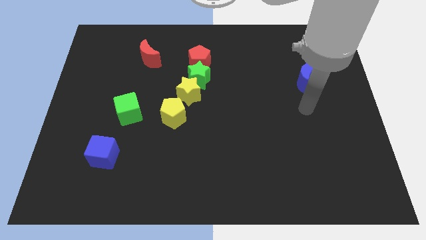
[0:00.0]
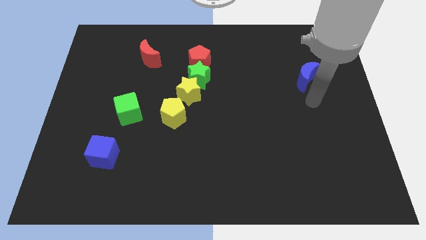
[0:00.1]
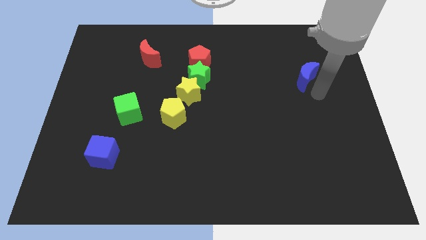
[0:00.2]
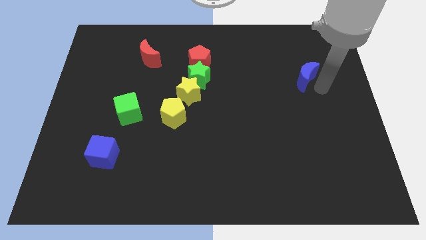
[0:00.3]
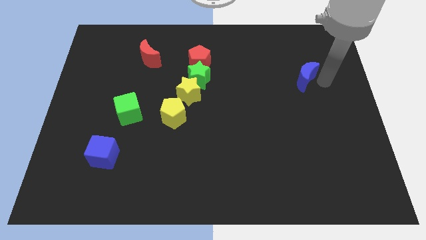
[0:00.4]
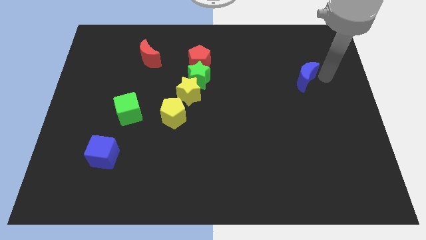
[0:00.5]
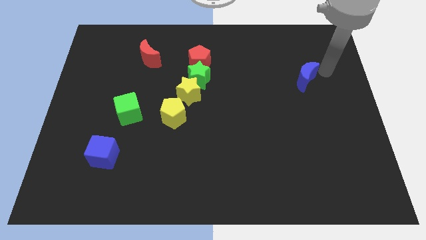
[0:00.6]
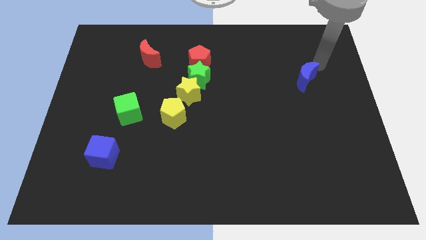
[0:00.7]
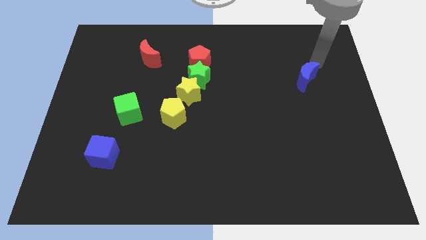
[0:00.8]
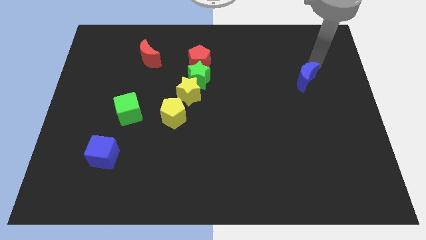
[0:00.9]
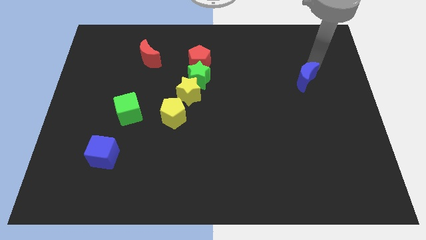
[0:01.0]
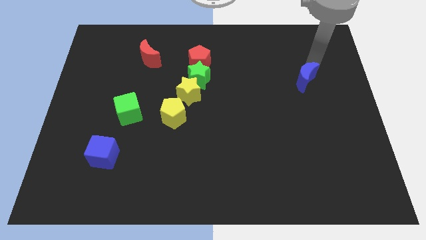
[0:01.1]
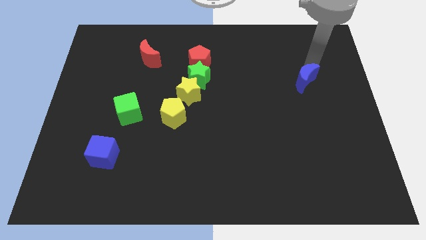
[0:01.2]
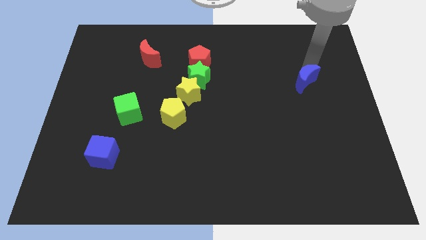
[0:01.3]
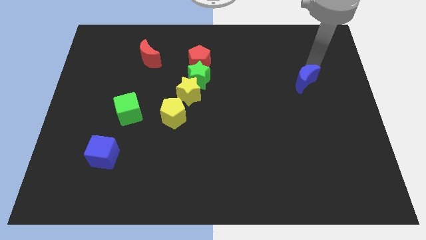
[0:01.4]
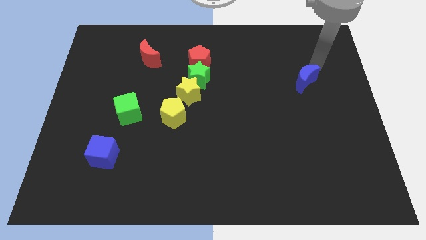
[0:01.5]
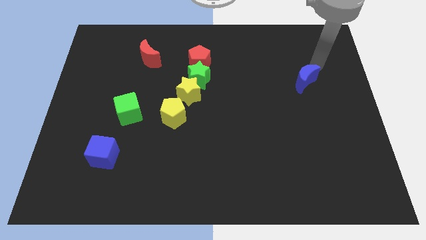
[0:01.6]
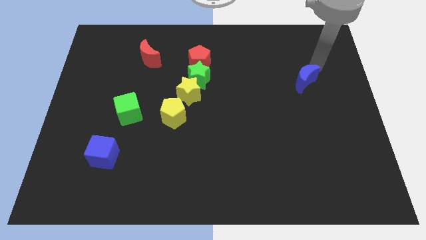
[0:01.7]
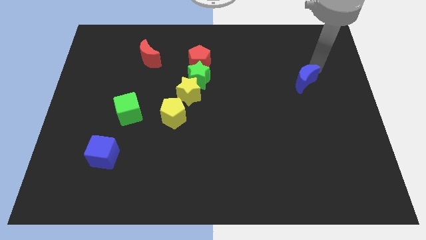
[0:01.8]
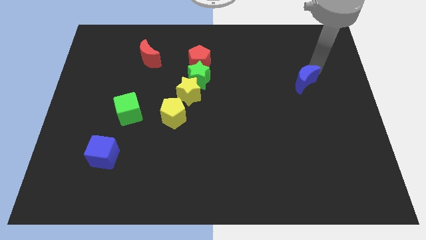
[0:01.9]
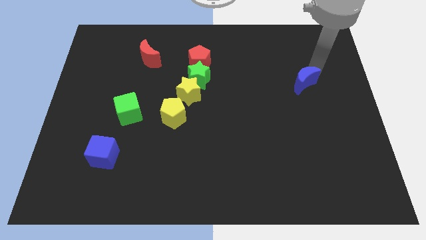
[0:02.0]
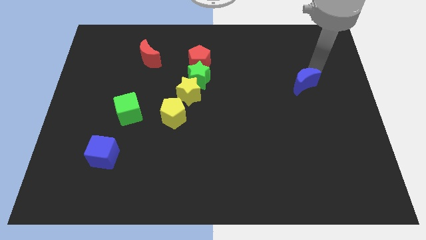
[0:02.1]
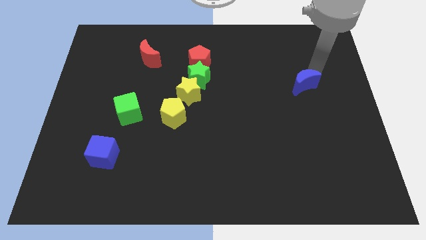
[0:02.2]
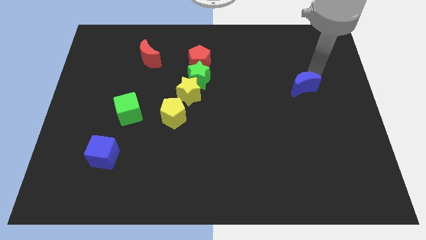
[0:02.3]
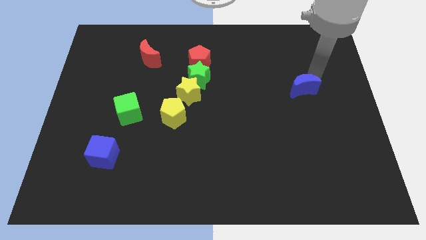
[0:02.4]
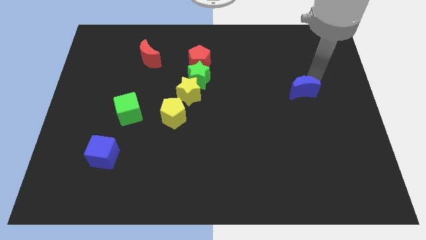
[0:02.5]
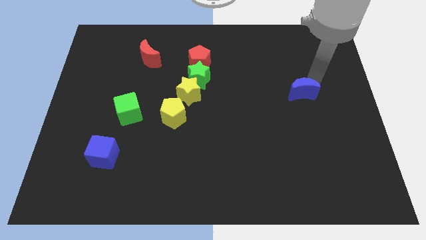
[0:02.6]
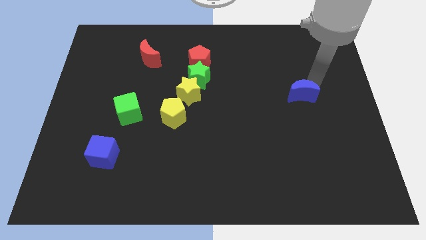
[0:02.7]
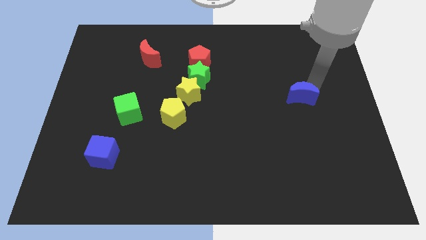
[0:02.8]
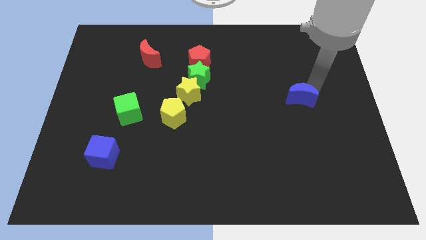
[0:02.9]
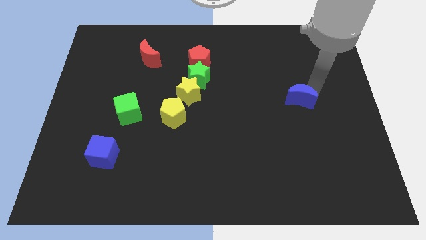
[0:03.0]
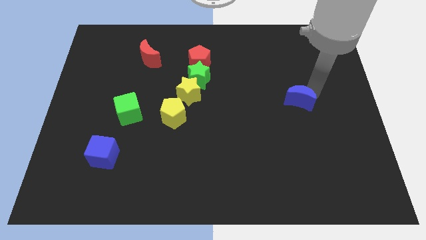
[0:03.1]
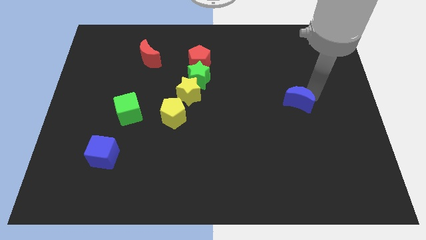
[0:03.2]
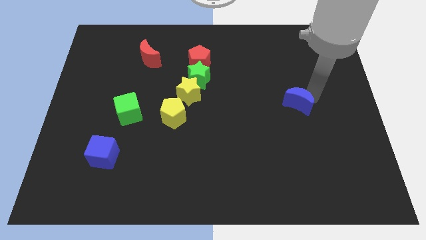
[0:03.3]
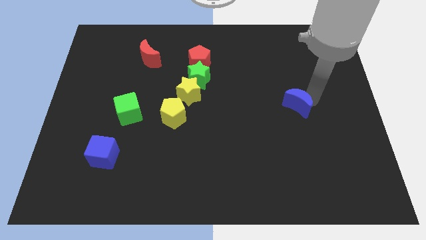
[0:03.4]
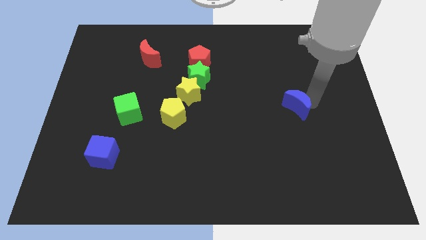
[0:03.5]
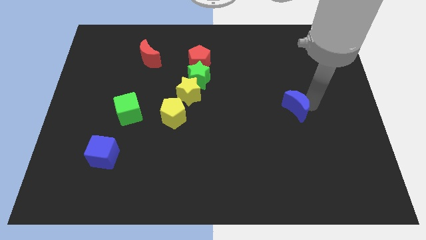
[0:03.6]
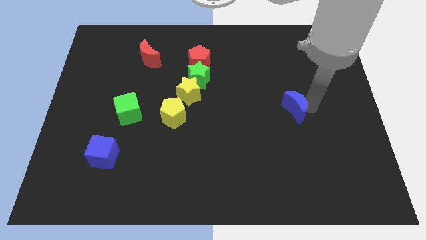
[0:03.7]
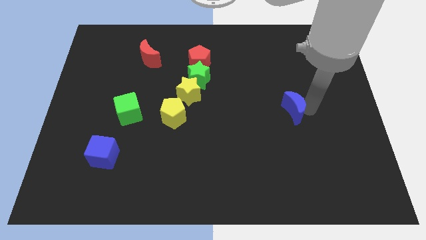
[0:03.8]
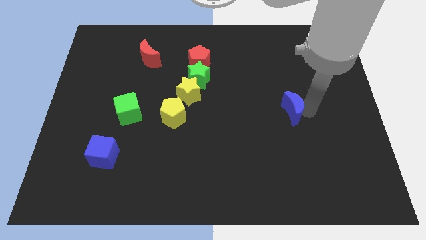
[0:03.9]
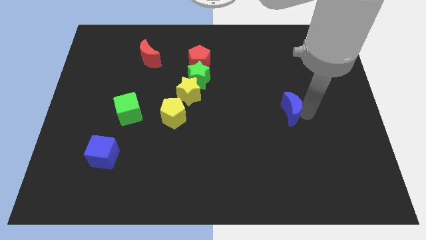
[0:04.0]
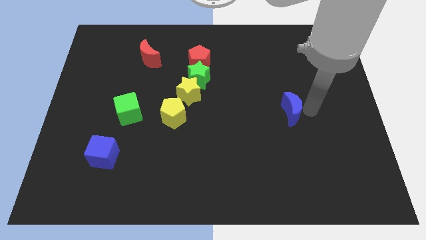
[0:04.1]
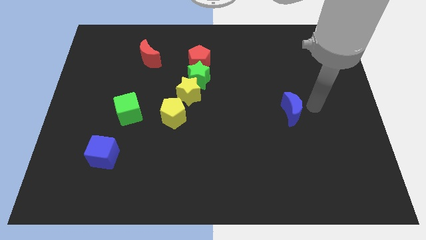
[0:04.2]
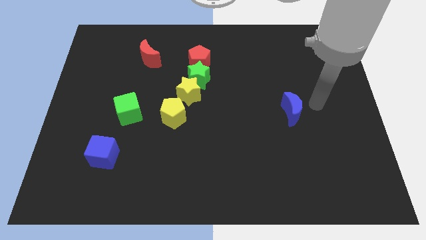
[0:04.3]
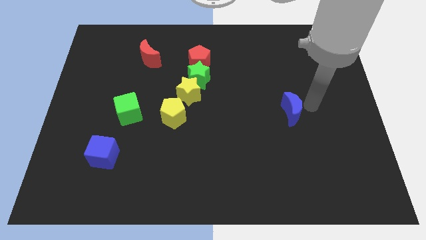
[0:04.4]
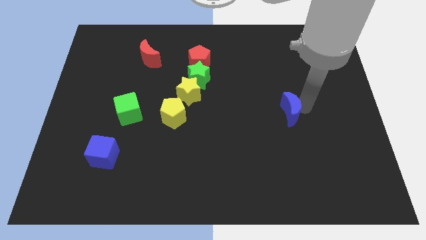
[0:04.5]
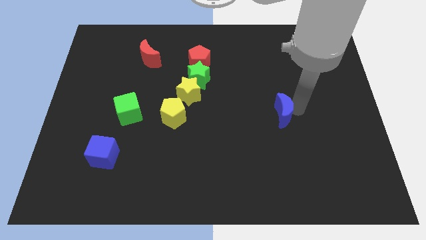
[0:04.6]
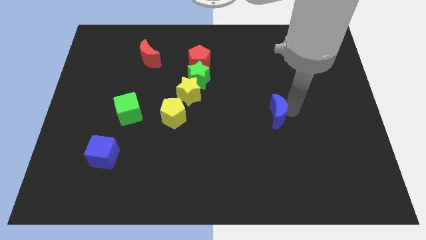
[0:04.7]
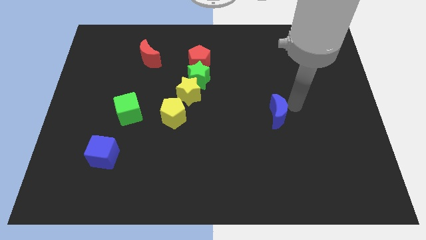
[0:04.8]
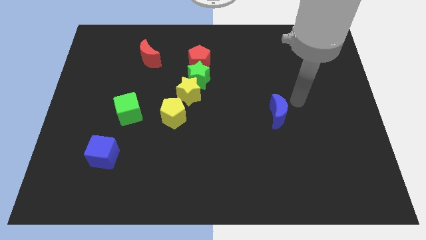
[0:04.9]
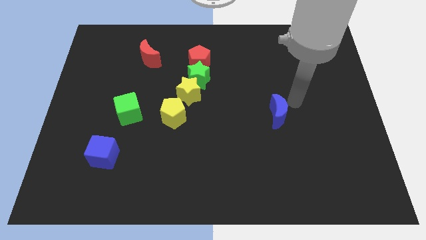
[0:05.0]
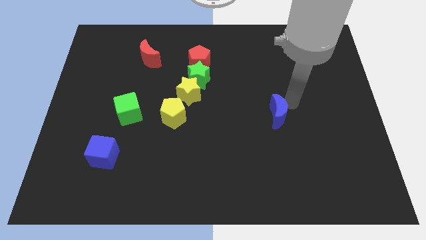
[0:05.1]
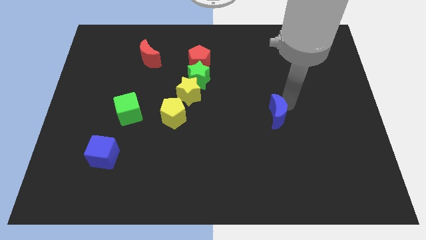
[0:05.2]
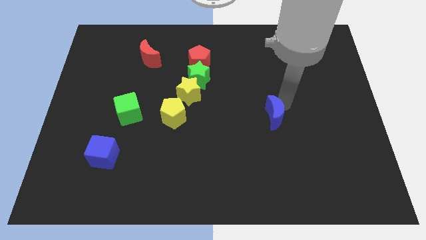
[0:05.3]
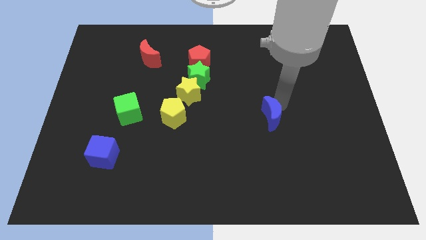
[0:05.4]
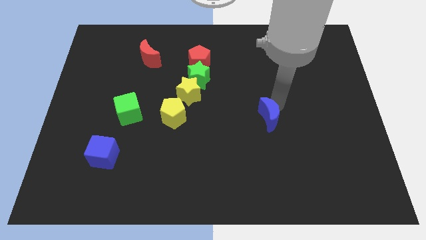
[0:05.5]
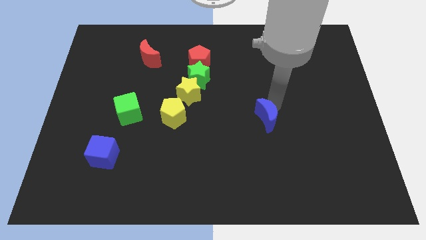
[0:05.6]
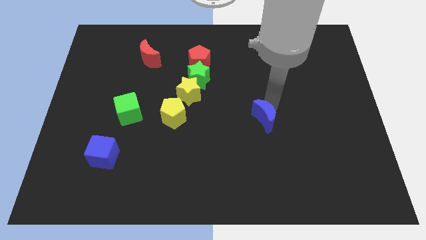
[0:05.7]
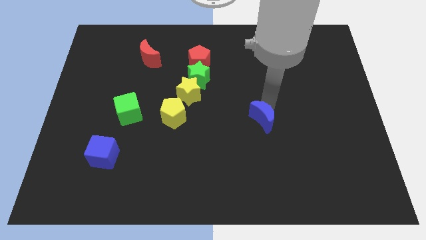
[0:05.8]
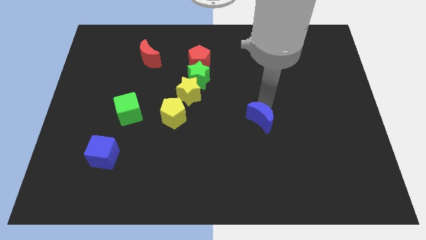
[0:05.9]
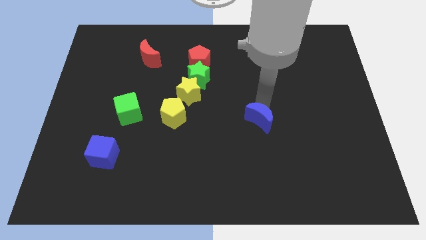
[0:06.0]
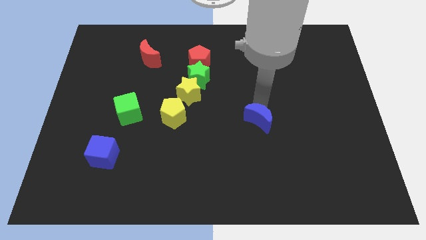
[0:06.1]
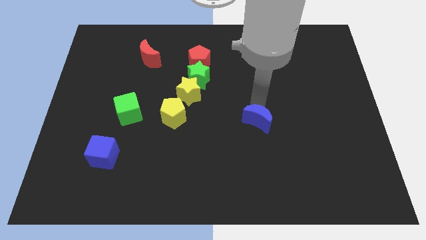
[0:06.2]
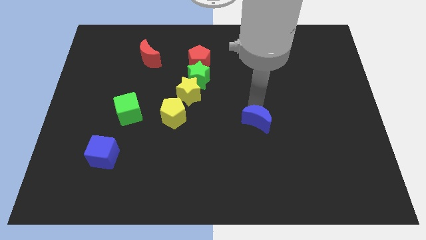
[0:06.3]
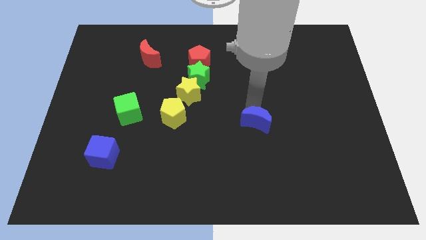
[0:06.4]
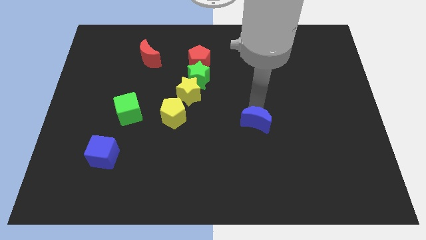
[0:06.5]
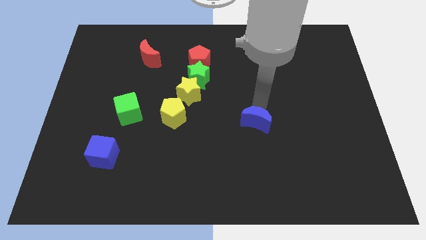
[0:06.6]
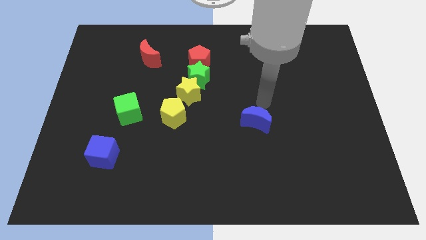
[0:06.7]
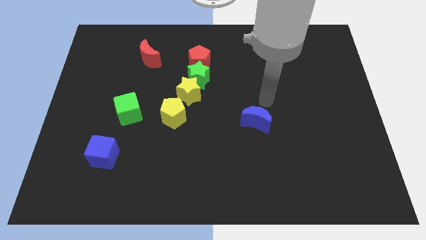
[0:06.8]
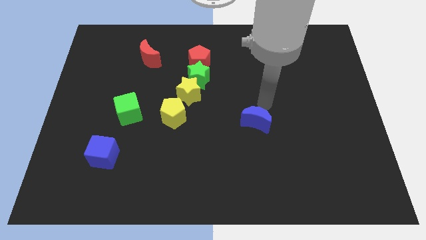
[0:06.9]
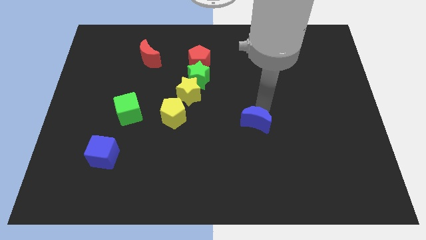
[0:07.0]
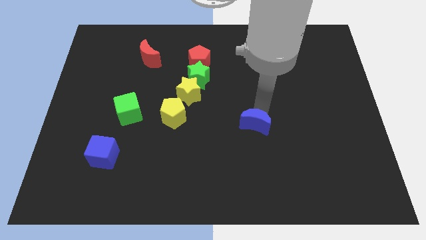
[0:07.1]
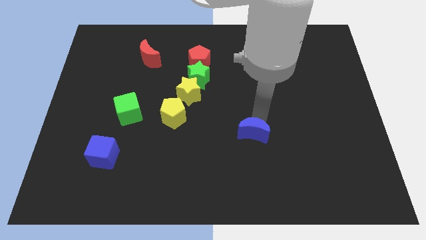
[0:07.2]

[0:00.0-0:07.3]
slide the blue moon diagonally downwards and to the left

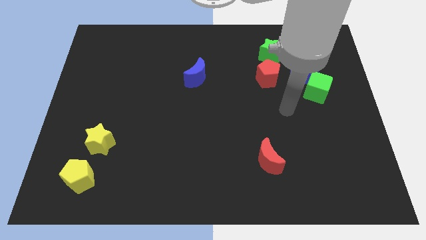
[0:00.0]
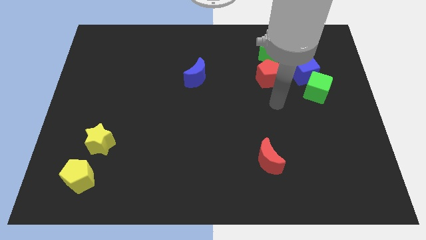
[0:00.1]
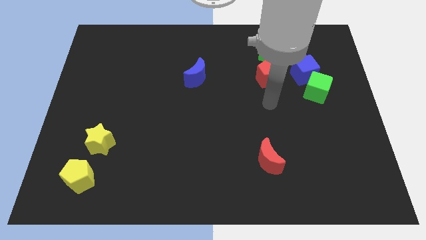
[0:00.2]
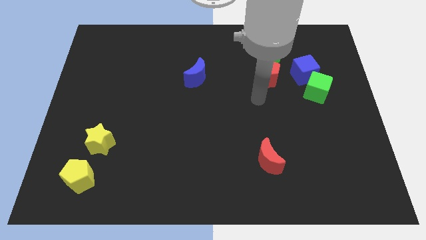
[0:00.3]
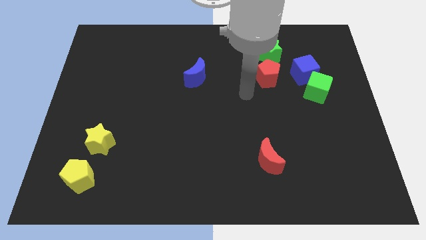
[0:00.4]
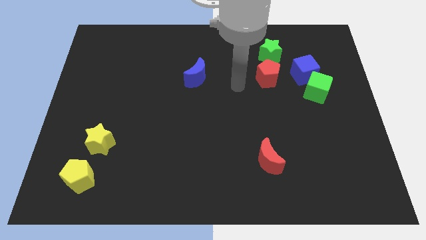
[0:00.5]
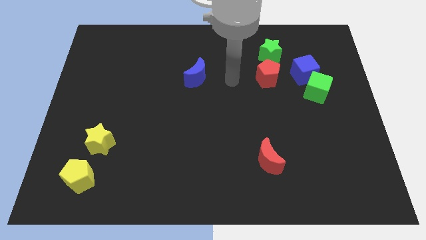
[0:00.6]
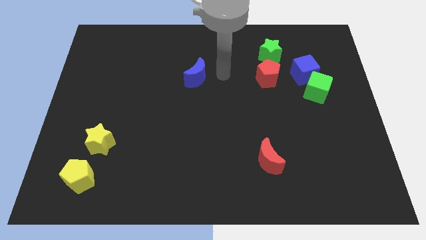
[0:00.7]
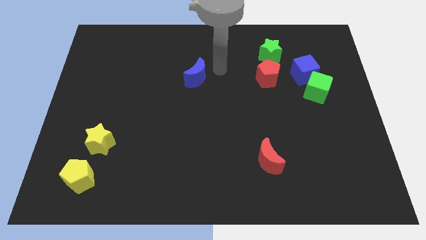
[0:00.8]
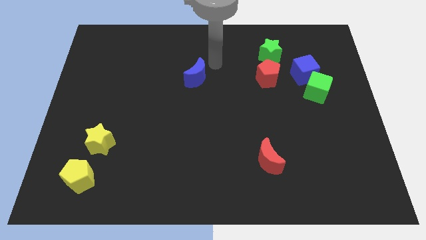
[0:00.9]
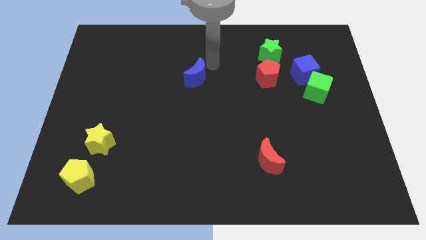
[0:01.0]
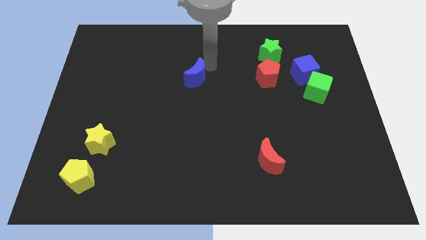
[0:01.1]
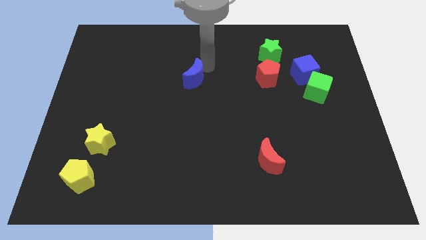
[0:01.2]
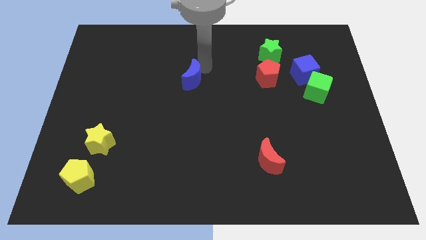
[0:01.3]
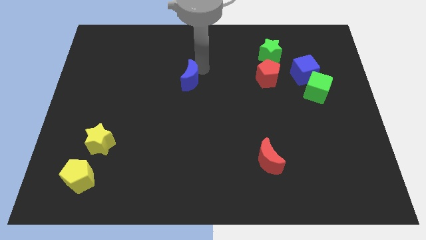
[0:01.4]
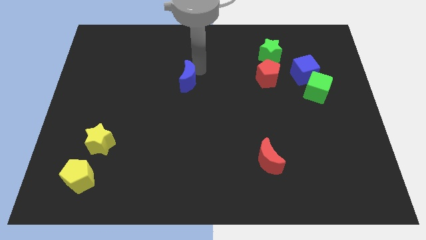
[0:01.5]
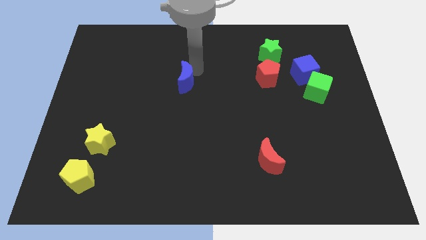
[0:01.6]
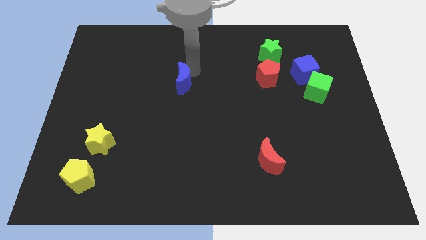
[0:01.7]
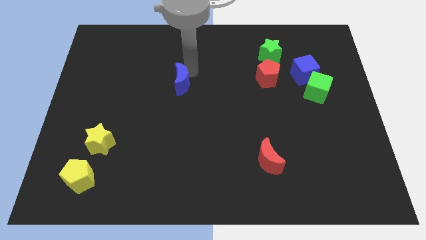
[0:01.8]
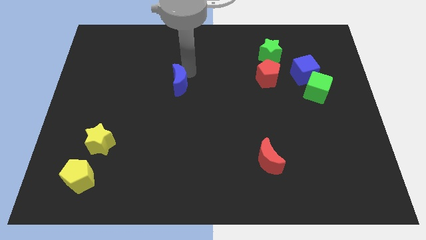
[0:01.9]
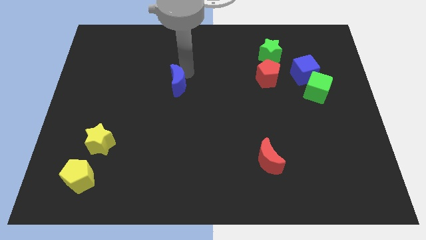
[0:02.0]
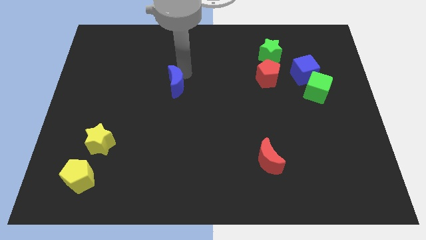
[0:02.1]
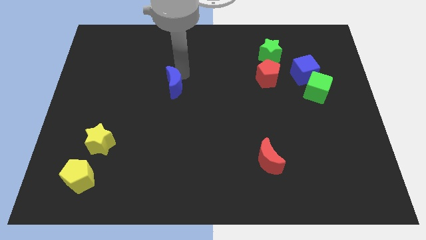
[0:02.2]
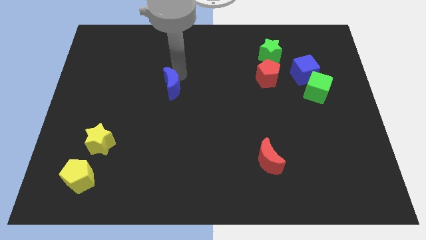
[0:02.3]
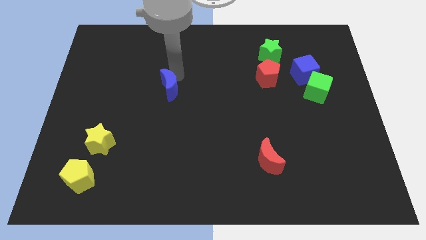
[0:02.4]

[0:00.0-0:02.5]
slightly push the blue moon down and then to the left
